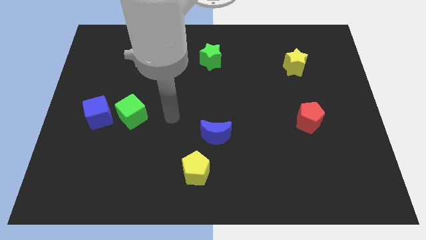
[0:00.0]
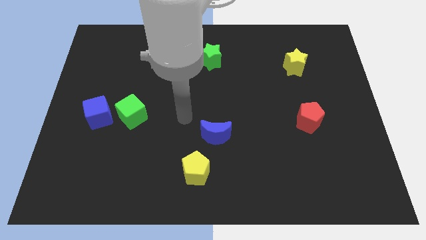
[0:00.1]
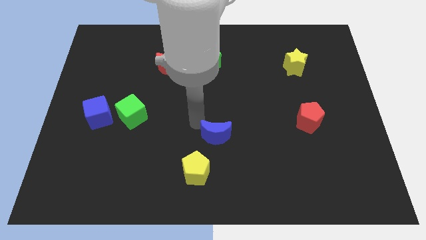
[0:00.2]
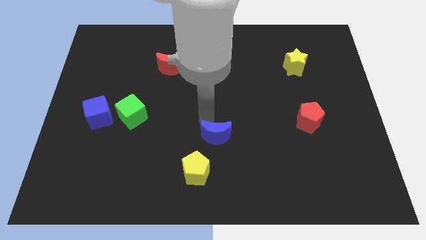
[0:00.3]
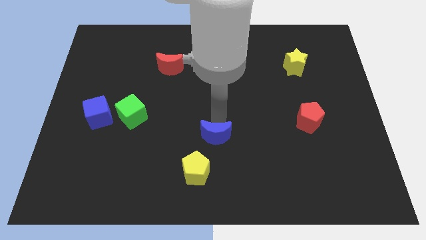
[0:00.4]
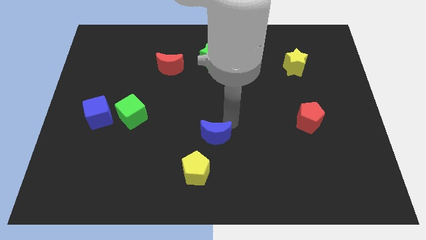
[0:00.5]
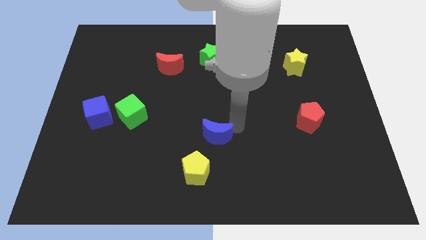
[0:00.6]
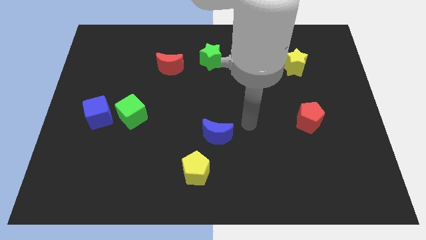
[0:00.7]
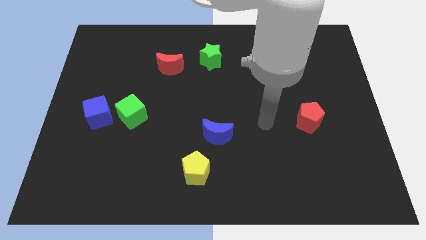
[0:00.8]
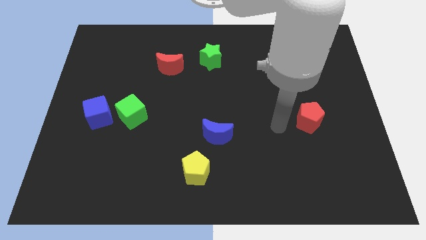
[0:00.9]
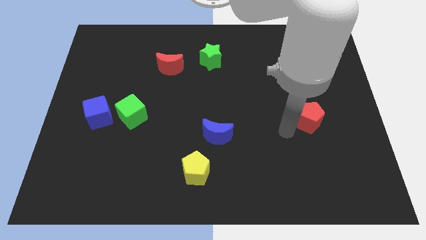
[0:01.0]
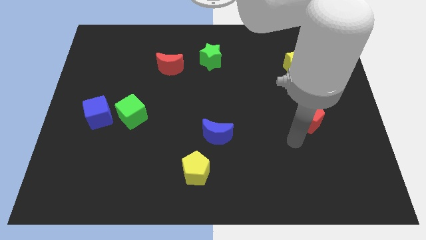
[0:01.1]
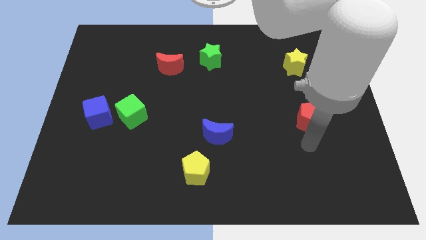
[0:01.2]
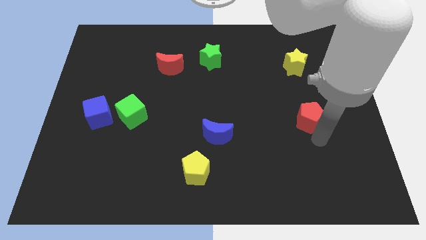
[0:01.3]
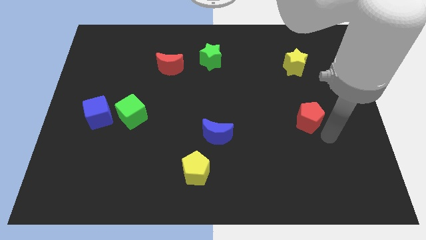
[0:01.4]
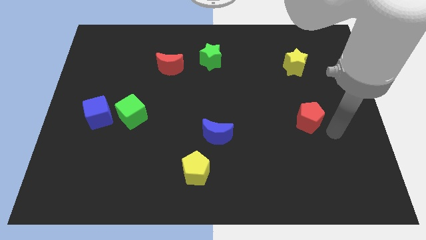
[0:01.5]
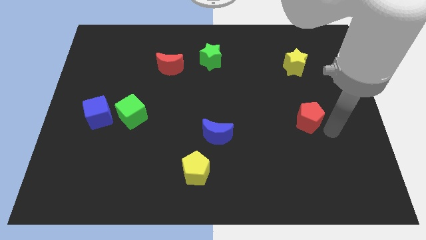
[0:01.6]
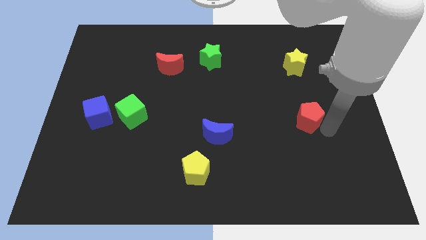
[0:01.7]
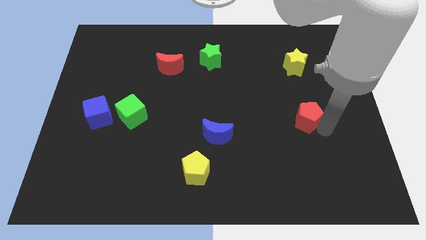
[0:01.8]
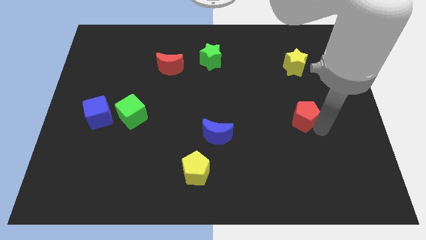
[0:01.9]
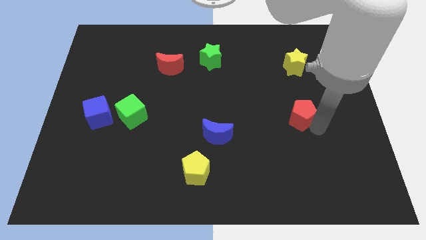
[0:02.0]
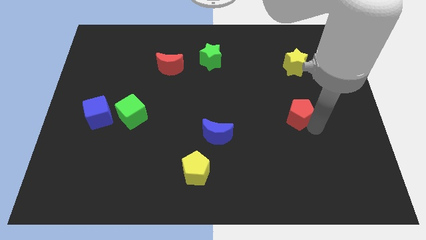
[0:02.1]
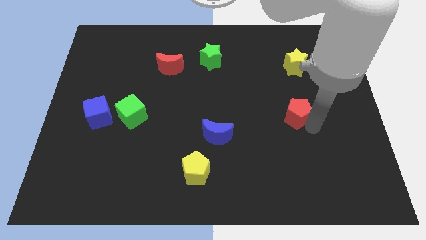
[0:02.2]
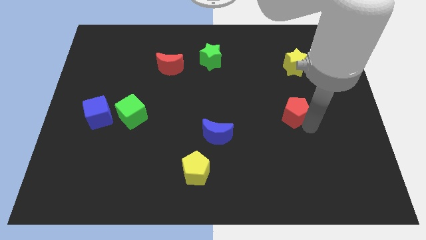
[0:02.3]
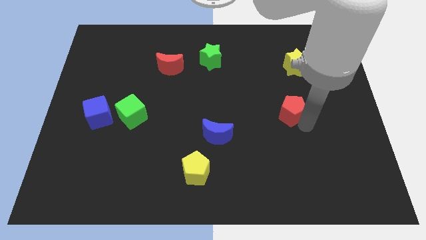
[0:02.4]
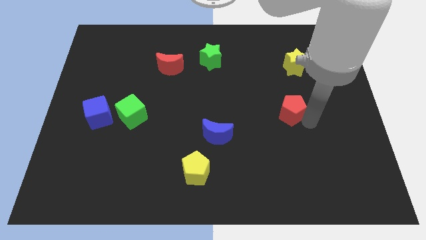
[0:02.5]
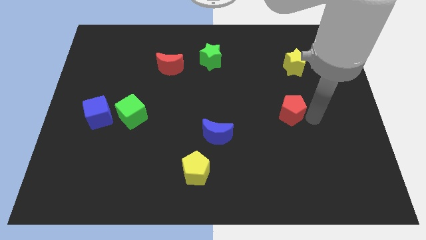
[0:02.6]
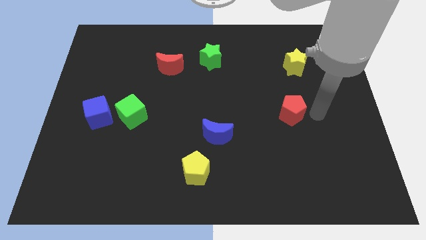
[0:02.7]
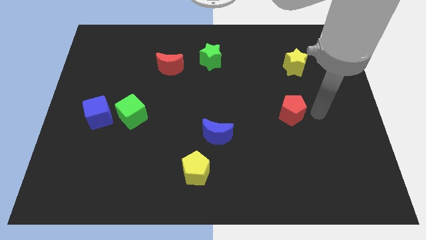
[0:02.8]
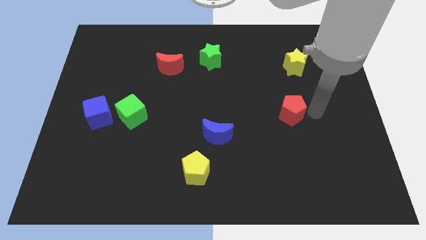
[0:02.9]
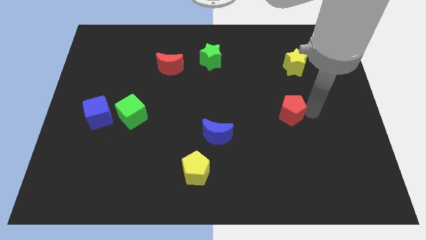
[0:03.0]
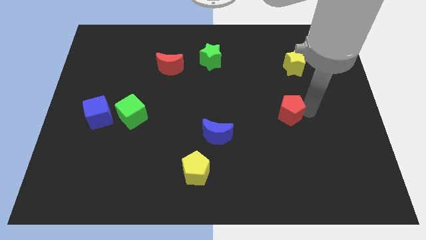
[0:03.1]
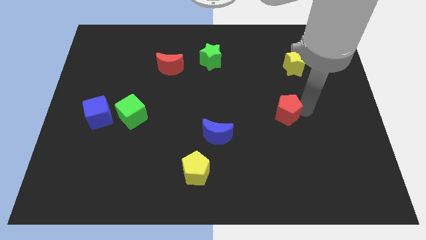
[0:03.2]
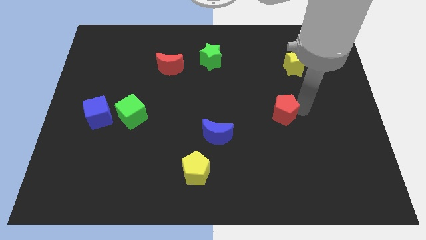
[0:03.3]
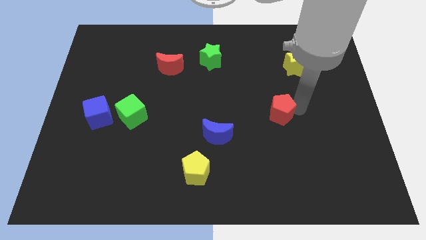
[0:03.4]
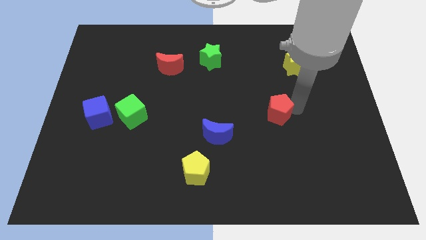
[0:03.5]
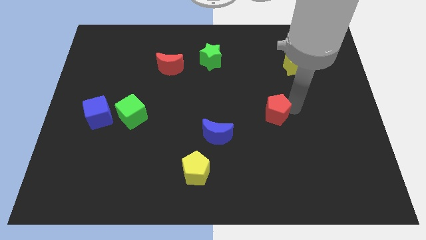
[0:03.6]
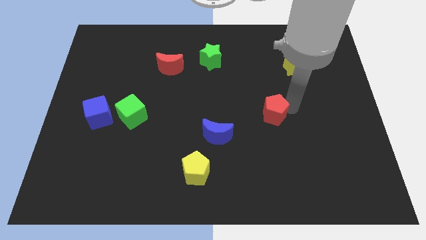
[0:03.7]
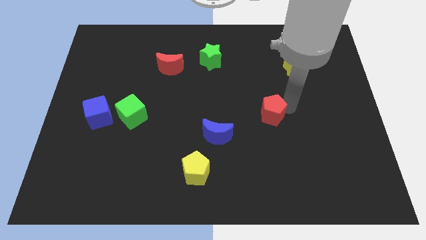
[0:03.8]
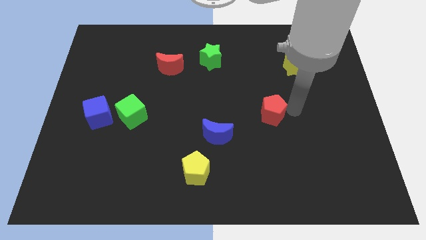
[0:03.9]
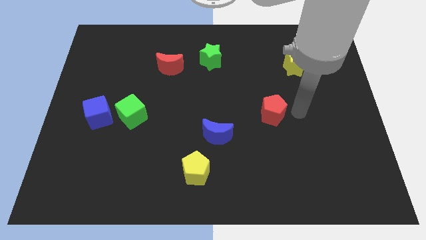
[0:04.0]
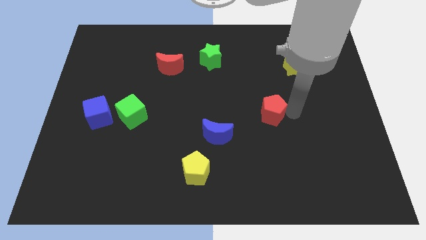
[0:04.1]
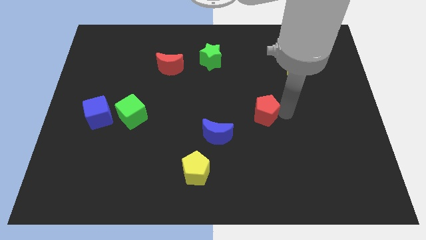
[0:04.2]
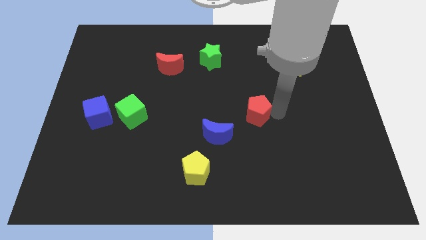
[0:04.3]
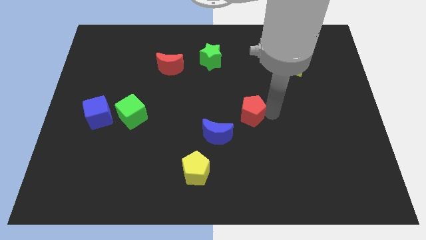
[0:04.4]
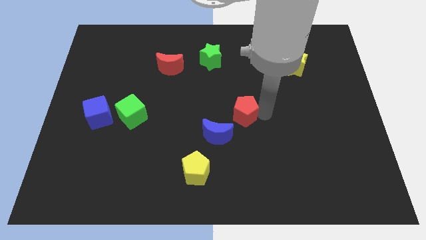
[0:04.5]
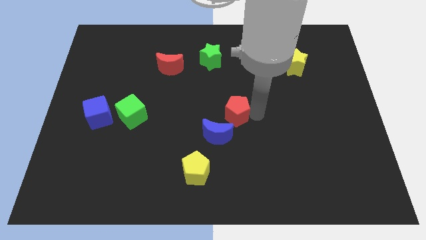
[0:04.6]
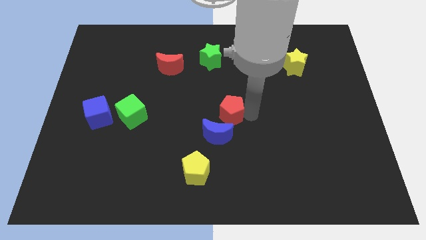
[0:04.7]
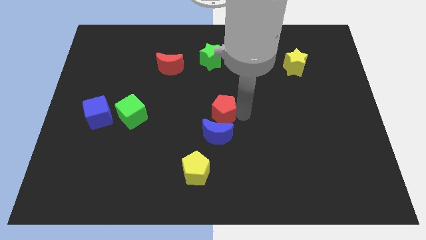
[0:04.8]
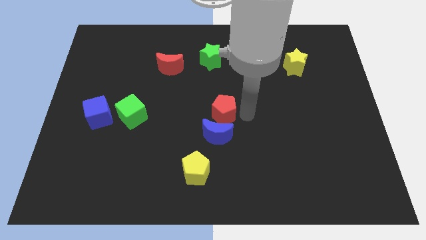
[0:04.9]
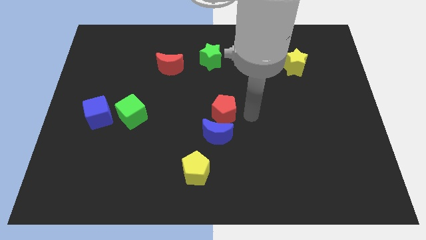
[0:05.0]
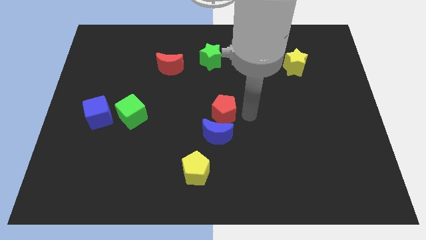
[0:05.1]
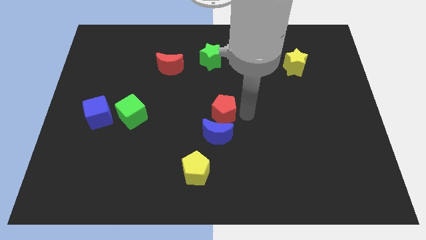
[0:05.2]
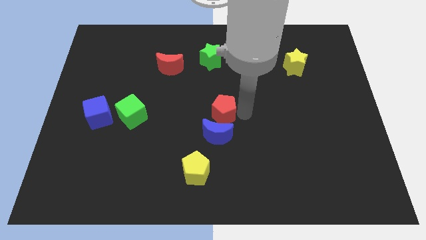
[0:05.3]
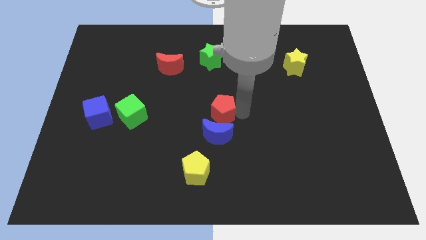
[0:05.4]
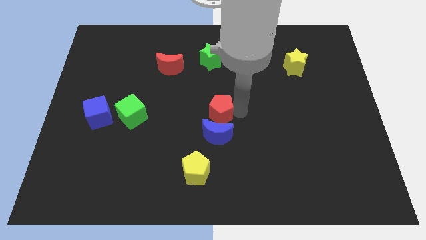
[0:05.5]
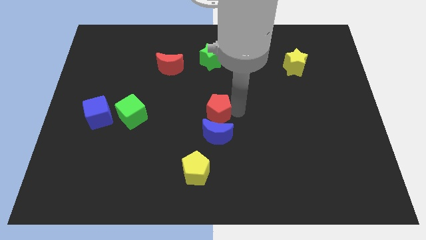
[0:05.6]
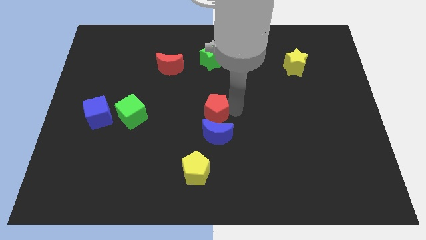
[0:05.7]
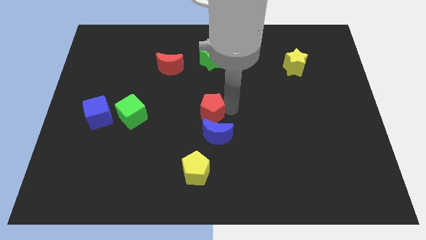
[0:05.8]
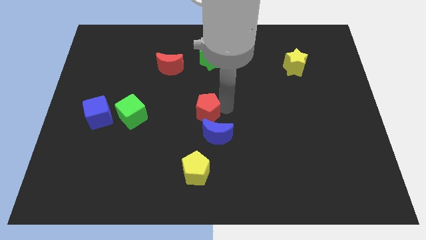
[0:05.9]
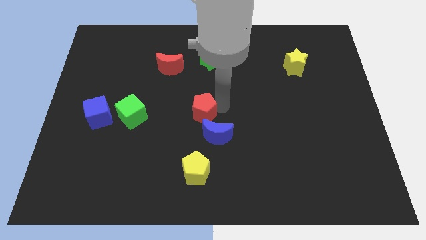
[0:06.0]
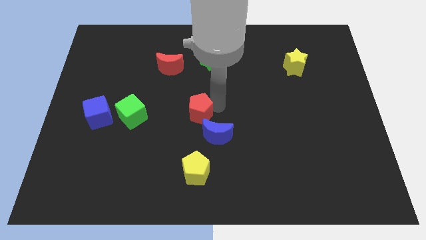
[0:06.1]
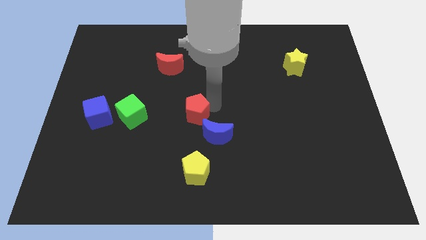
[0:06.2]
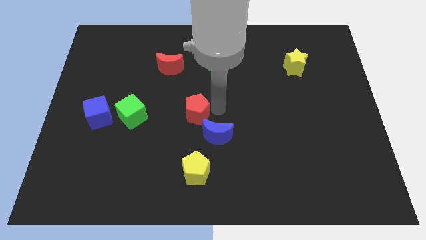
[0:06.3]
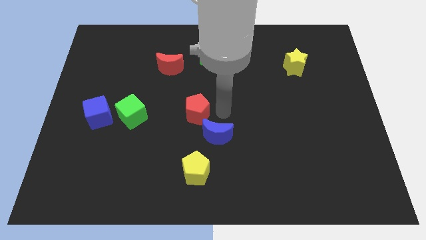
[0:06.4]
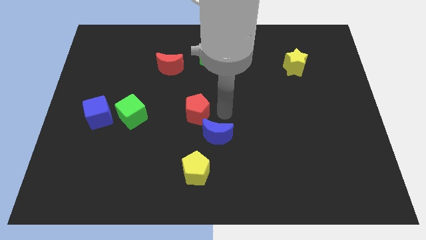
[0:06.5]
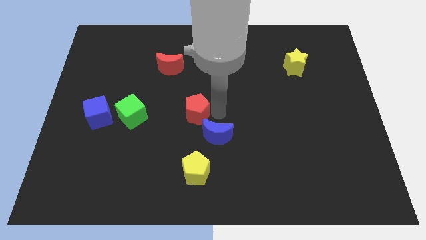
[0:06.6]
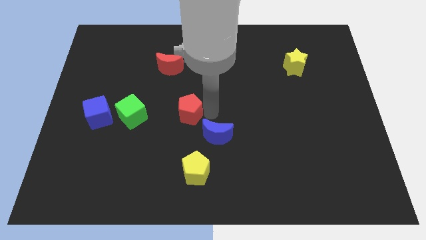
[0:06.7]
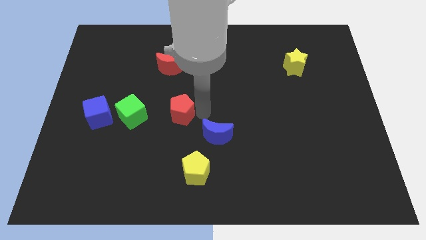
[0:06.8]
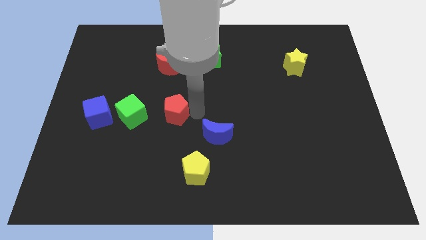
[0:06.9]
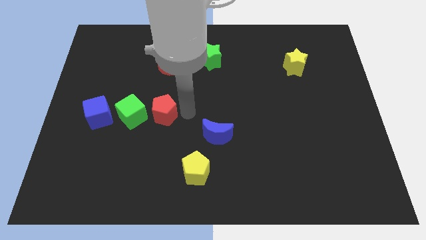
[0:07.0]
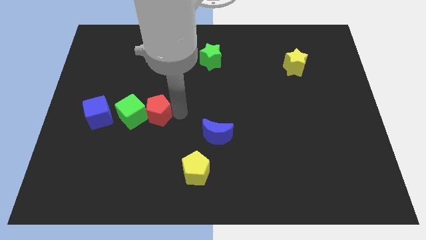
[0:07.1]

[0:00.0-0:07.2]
move the red pentagon to the green cube
